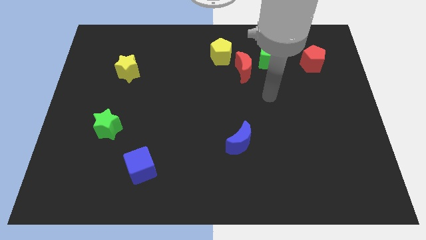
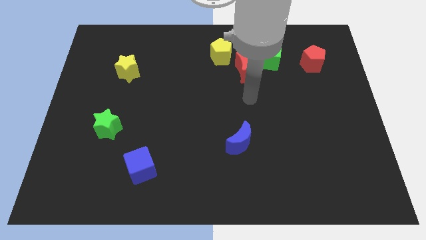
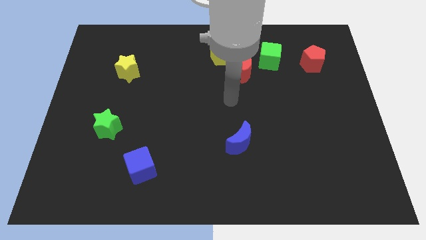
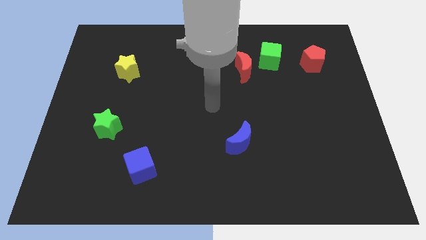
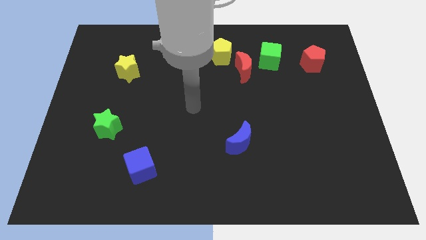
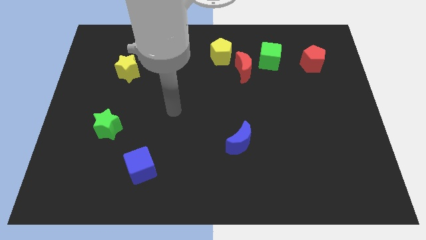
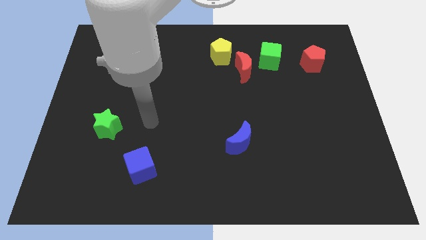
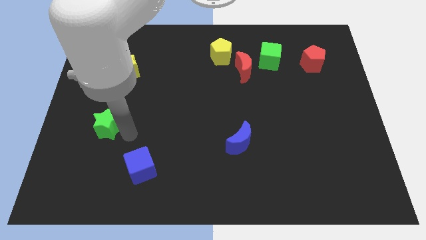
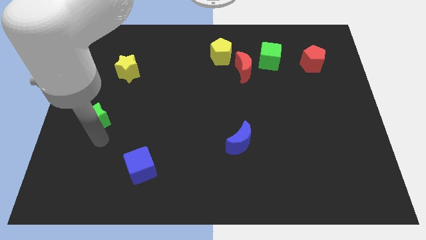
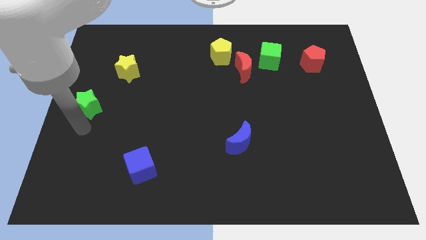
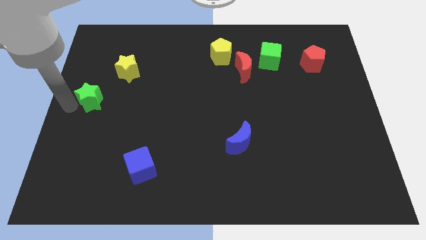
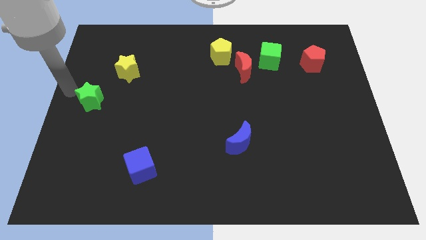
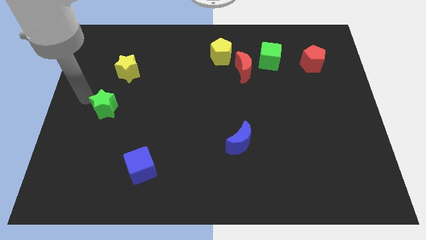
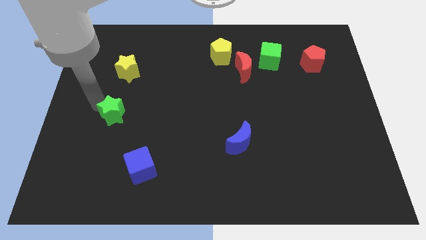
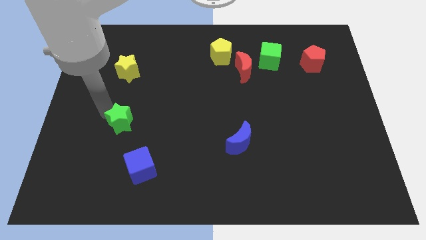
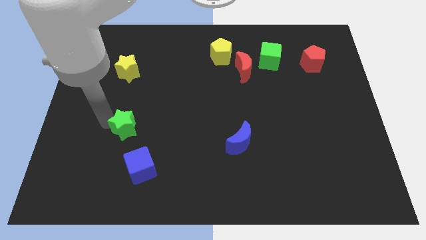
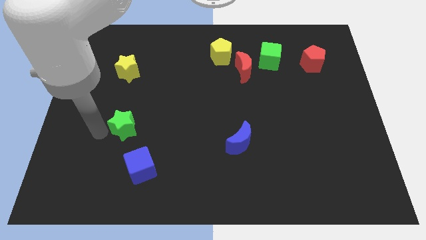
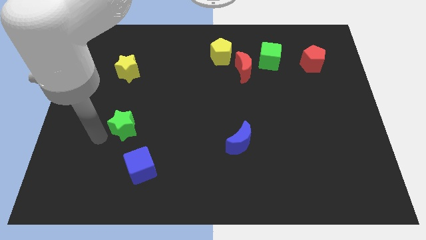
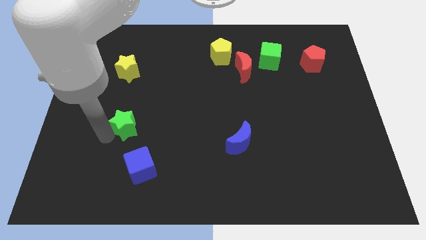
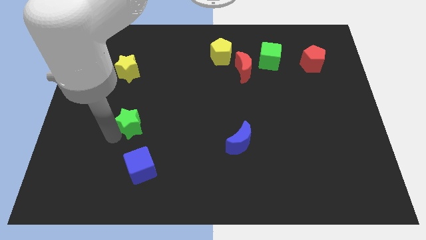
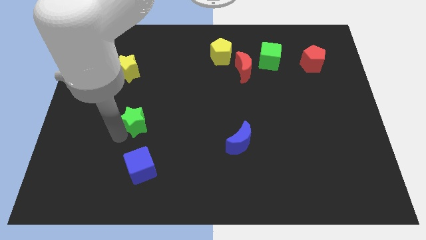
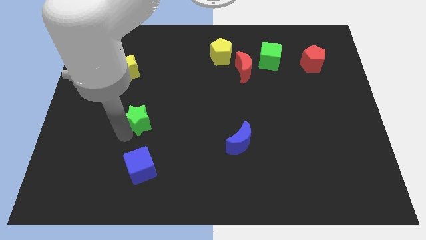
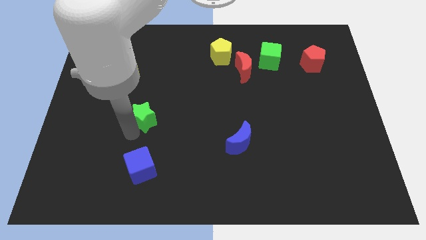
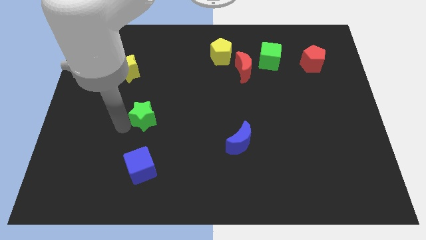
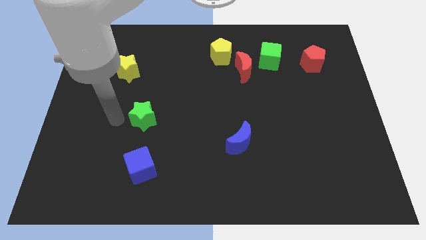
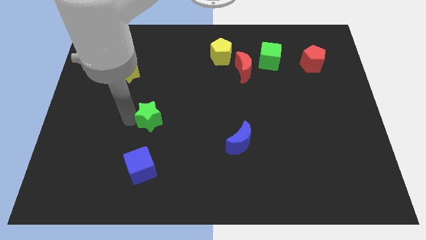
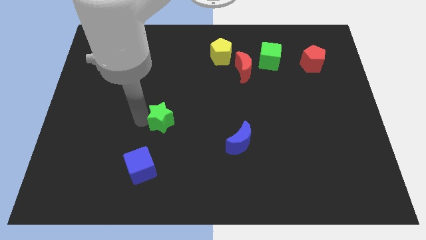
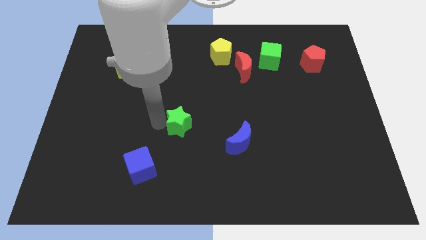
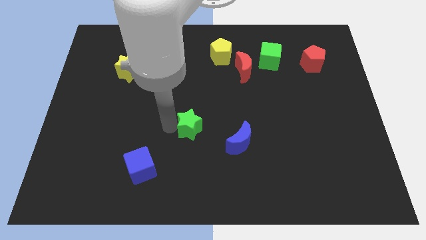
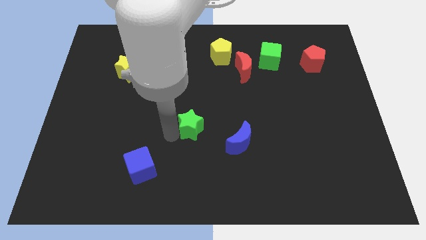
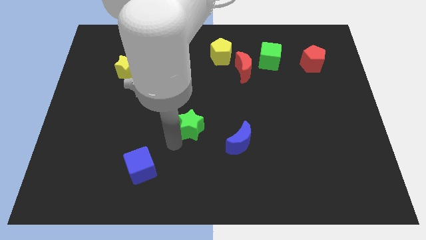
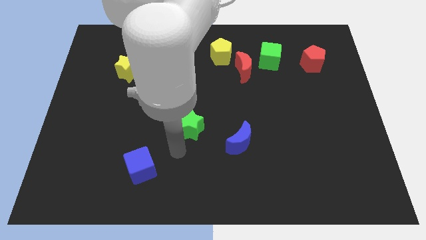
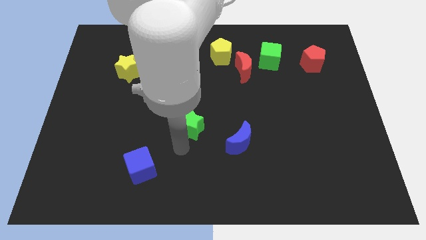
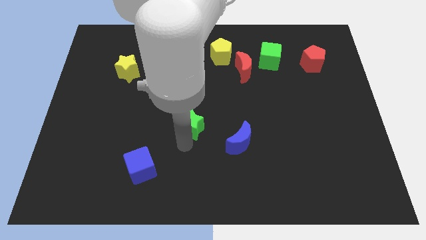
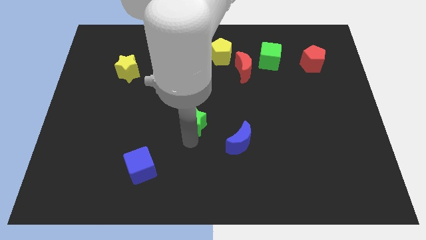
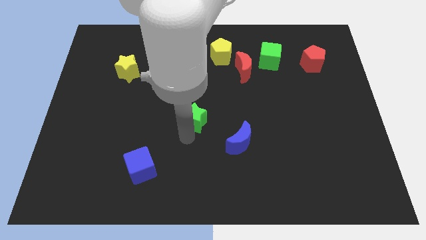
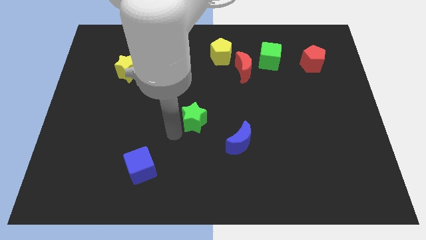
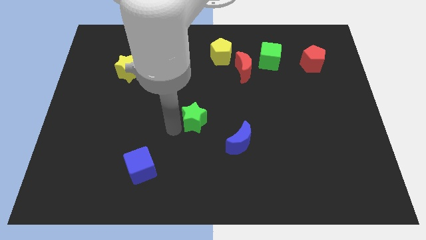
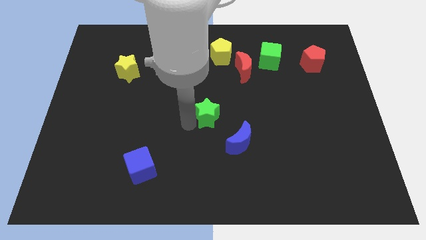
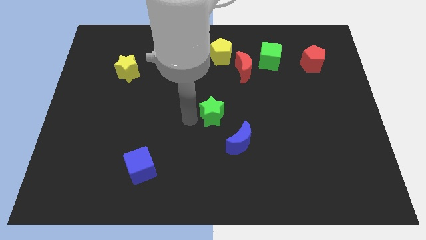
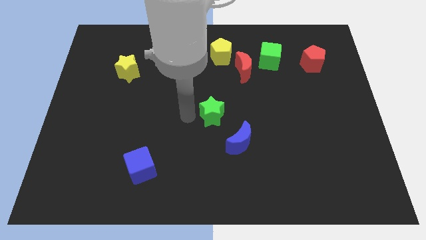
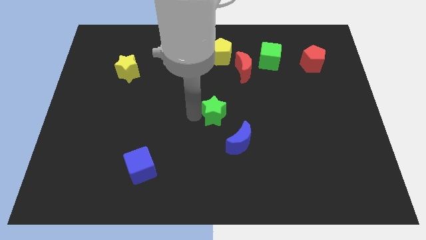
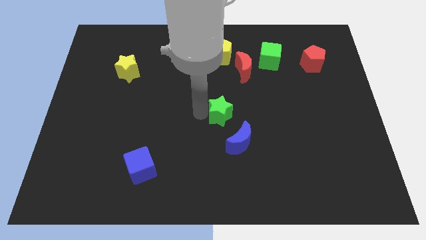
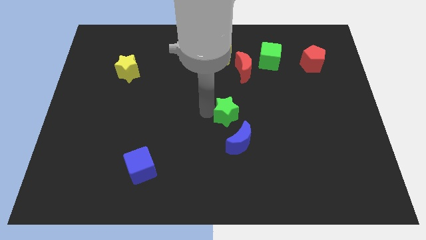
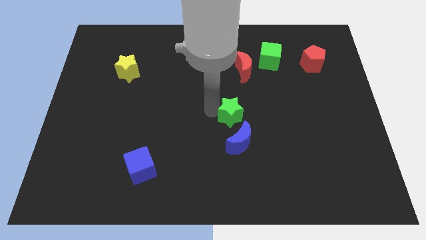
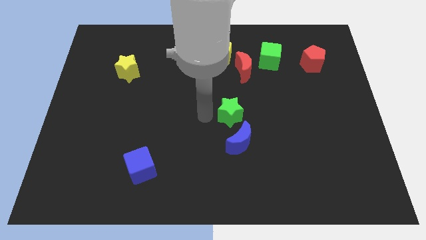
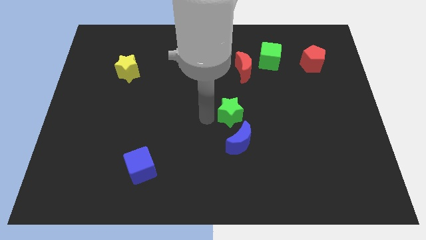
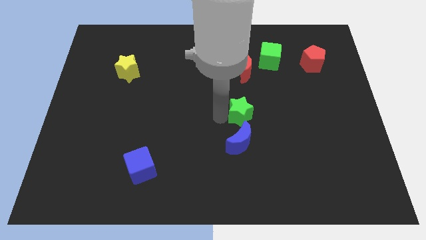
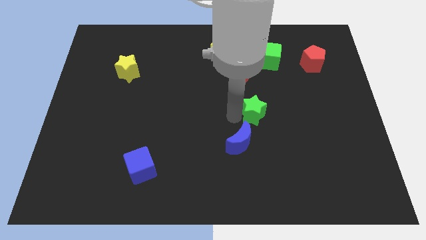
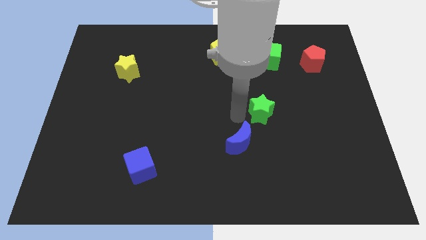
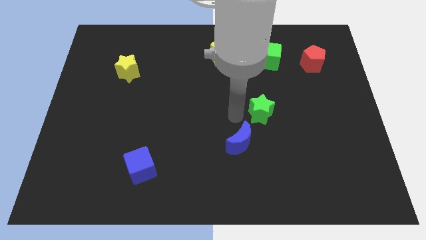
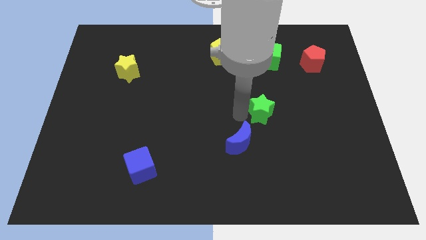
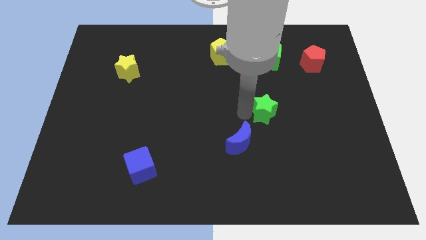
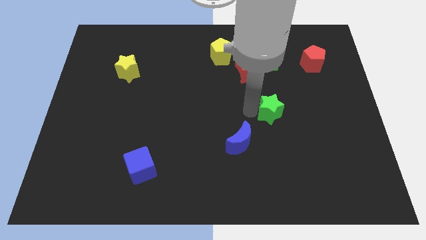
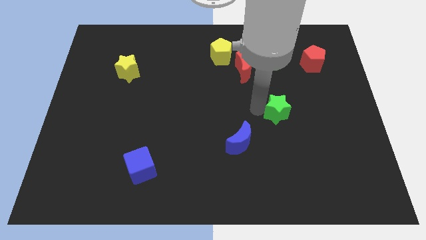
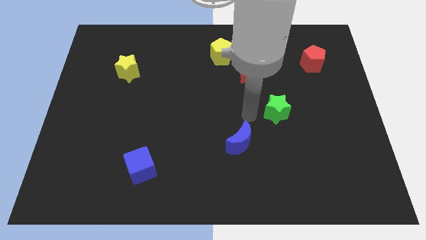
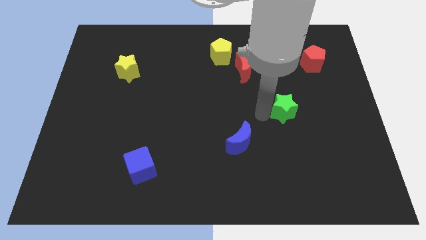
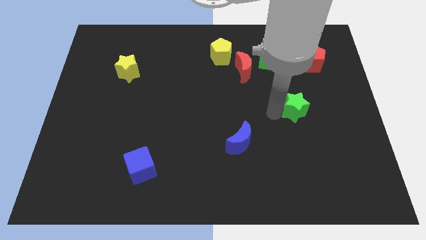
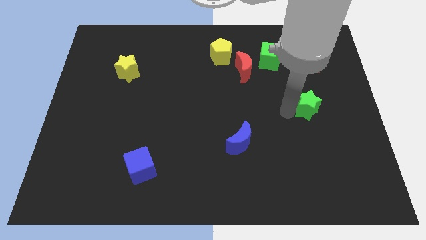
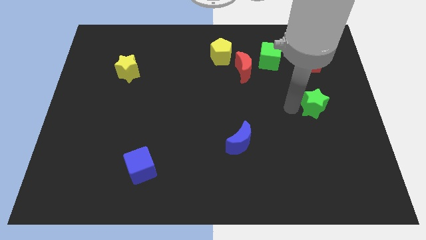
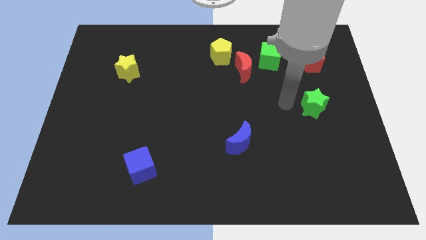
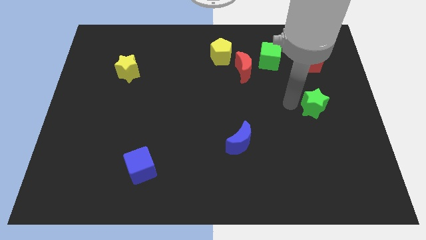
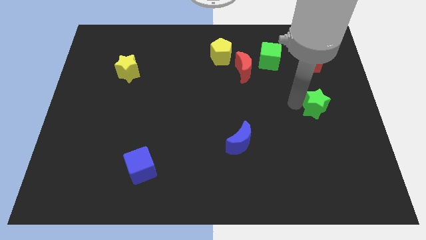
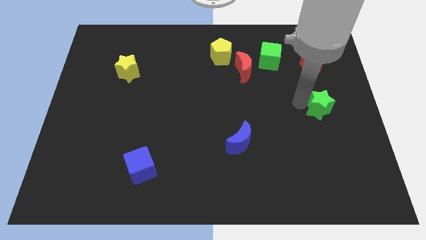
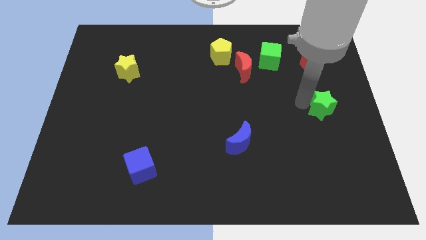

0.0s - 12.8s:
push the green star to the center right

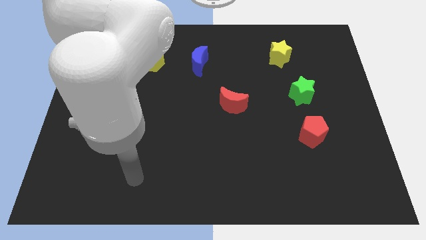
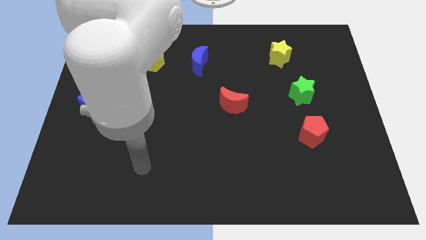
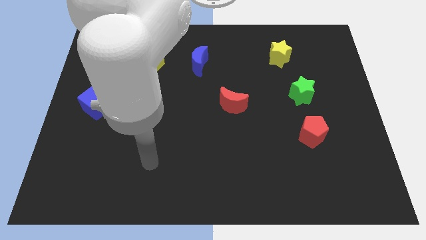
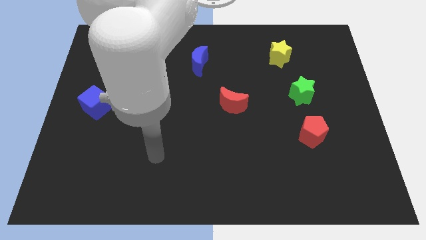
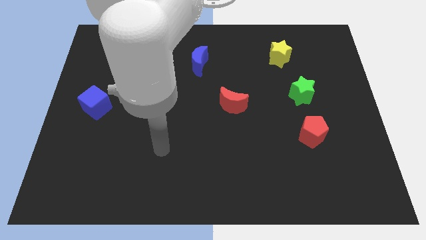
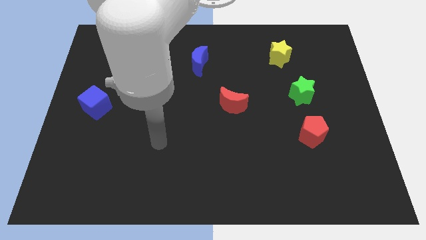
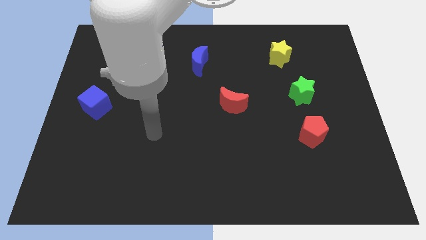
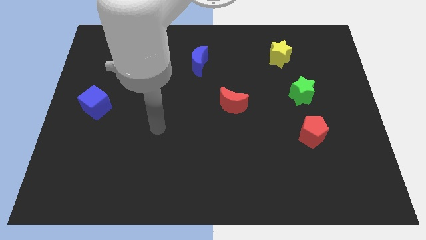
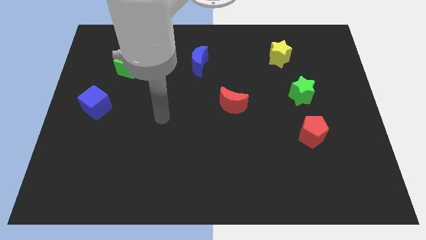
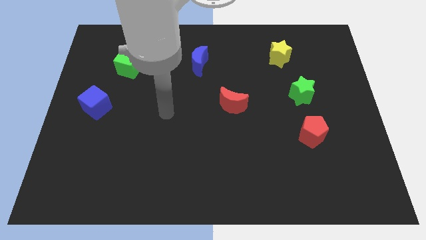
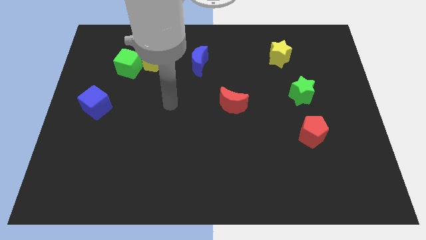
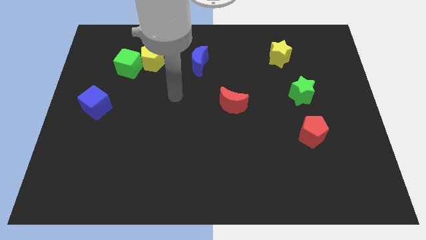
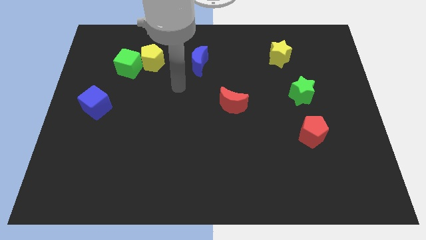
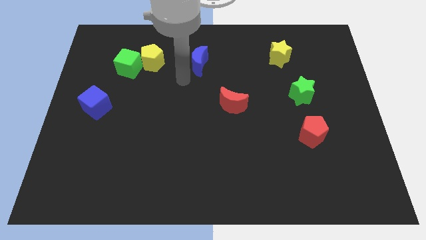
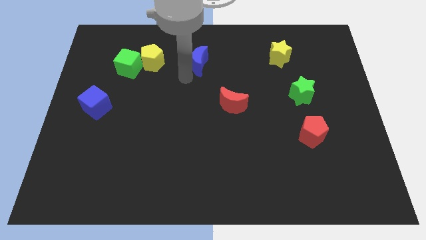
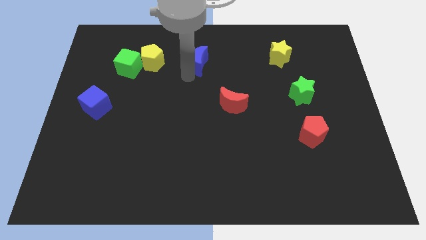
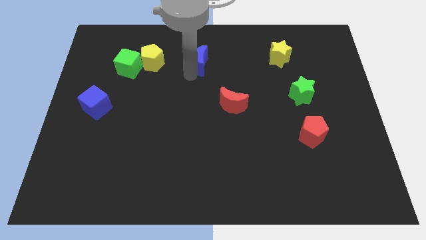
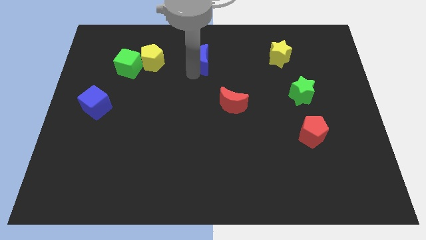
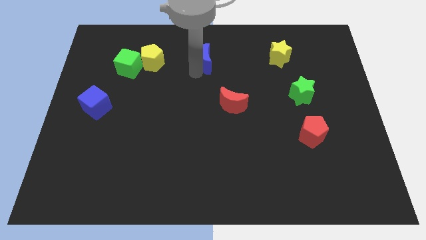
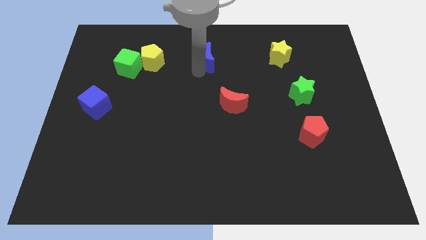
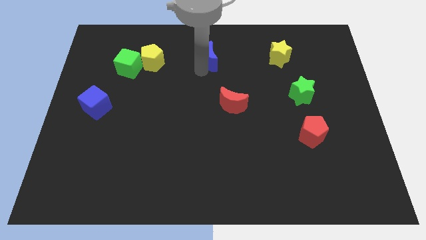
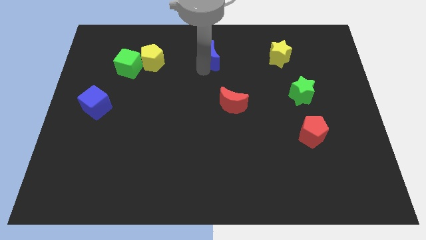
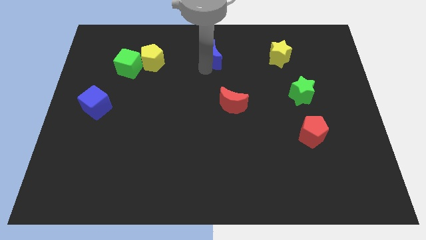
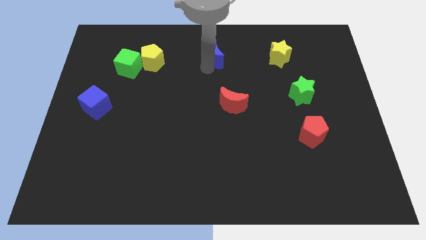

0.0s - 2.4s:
move the blue moon to the top side
